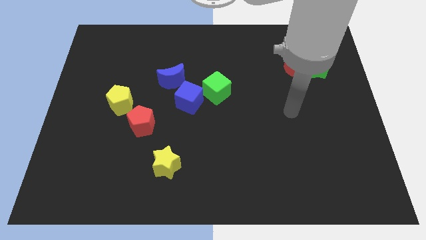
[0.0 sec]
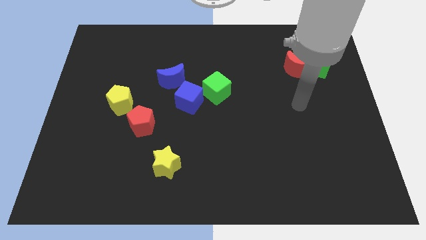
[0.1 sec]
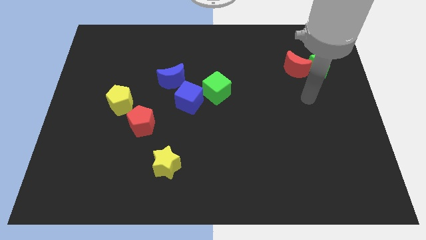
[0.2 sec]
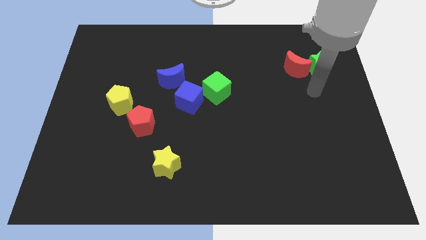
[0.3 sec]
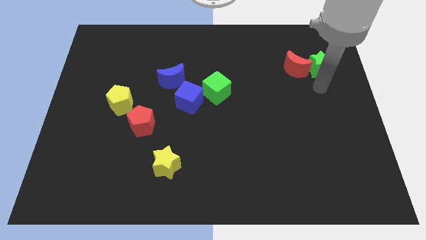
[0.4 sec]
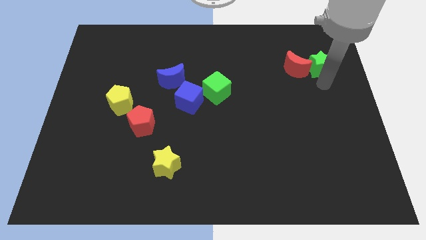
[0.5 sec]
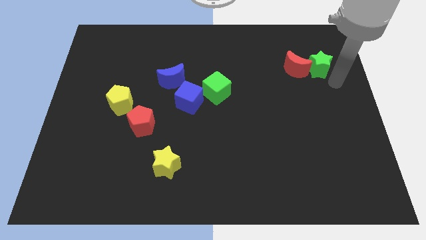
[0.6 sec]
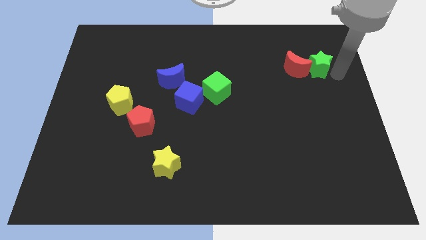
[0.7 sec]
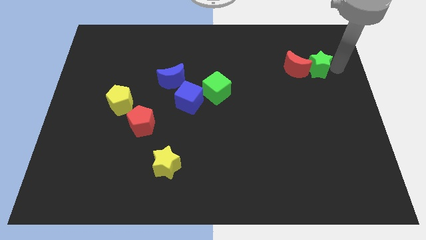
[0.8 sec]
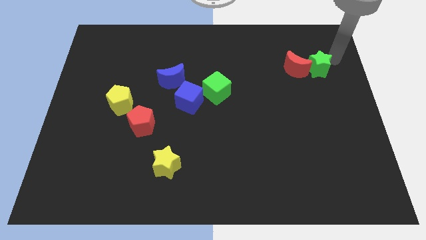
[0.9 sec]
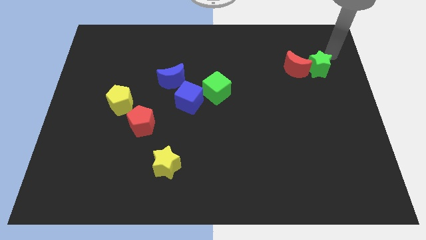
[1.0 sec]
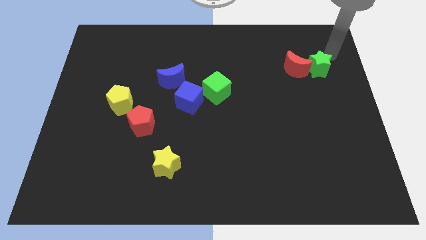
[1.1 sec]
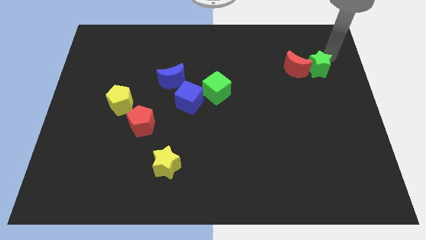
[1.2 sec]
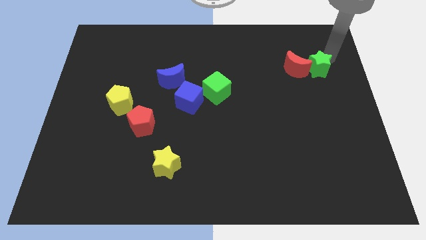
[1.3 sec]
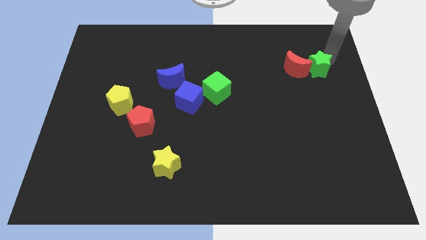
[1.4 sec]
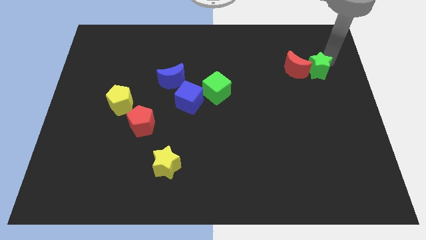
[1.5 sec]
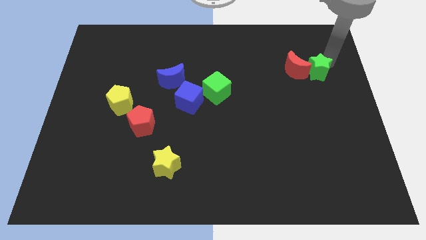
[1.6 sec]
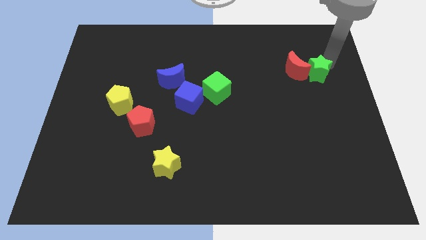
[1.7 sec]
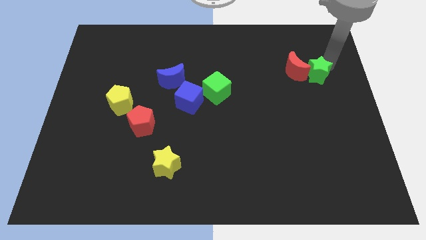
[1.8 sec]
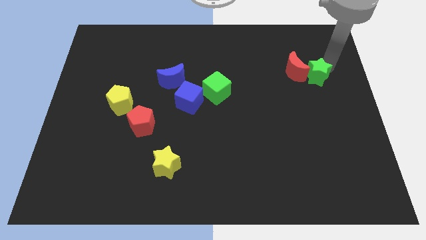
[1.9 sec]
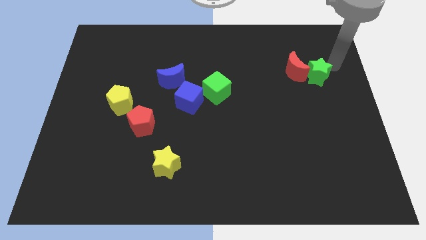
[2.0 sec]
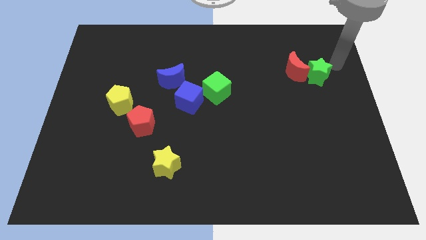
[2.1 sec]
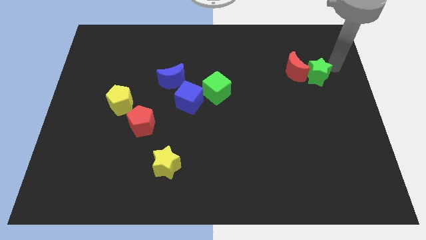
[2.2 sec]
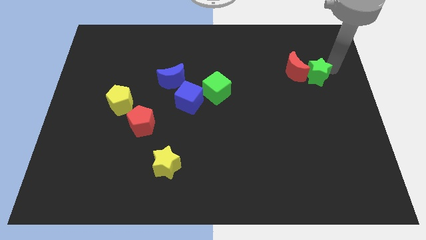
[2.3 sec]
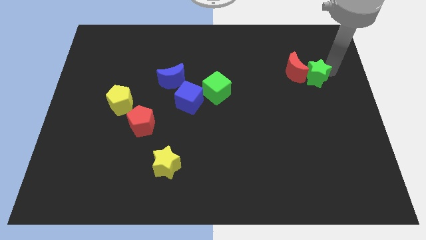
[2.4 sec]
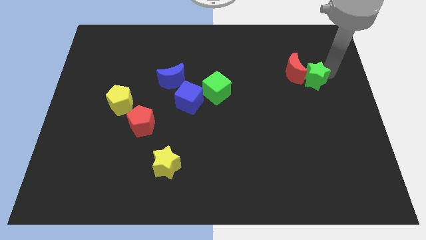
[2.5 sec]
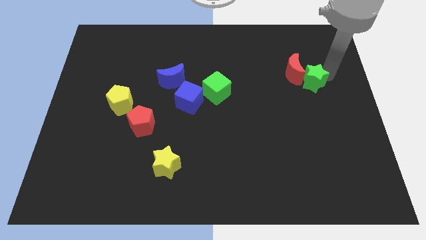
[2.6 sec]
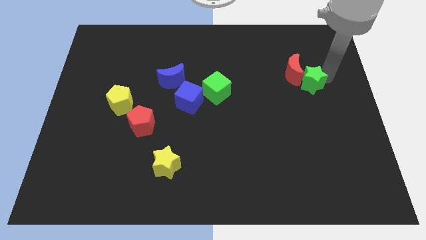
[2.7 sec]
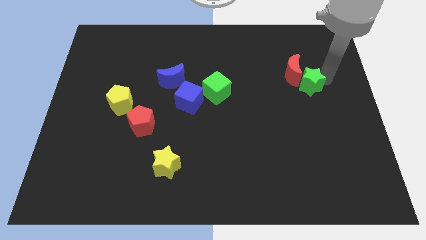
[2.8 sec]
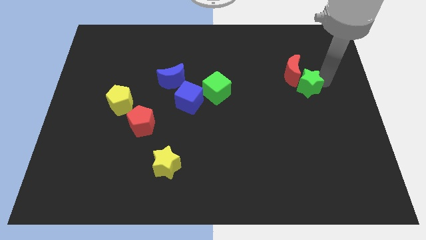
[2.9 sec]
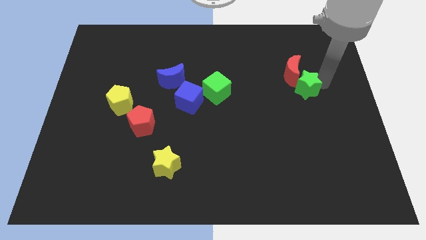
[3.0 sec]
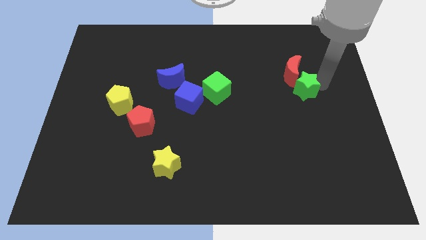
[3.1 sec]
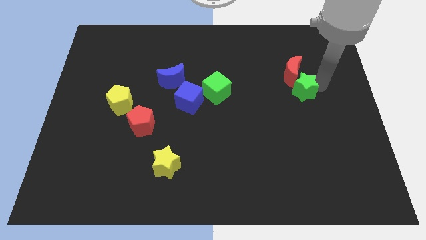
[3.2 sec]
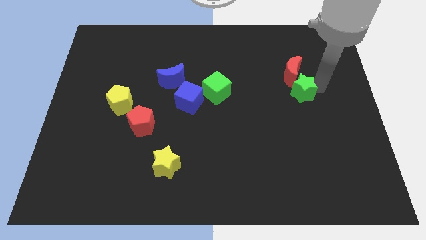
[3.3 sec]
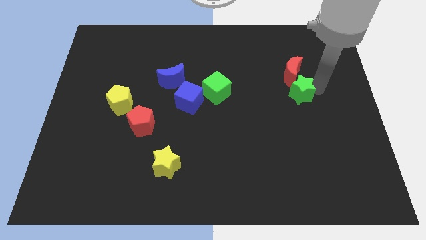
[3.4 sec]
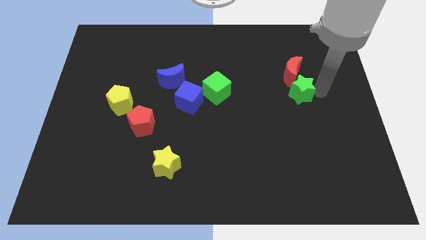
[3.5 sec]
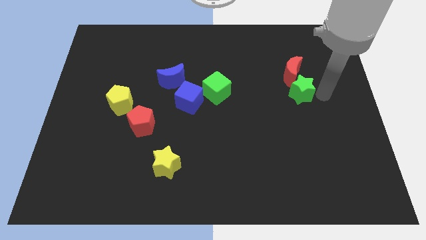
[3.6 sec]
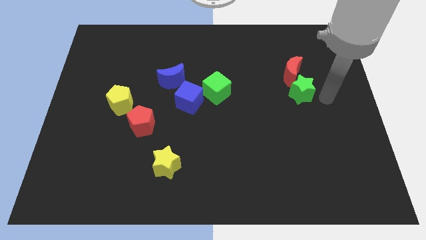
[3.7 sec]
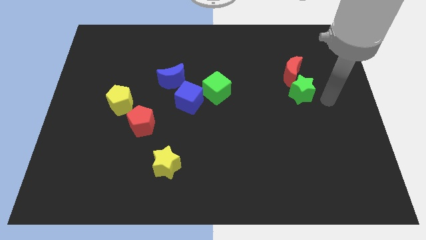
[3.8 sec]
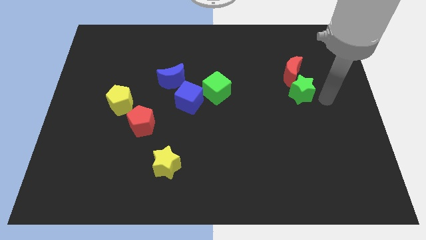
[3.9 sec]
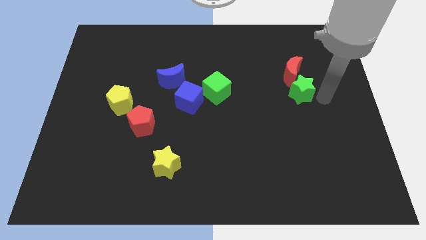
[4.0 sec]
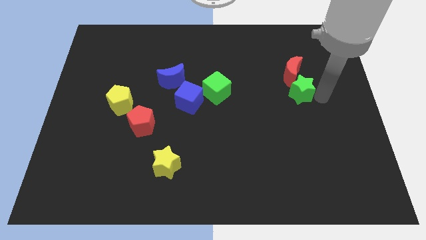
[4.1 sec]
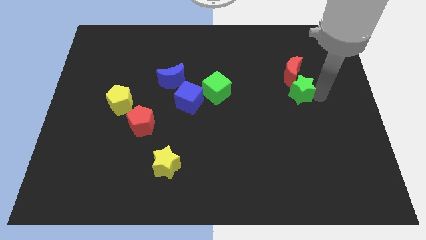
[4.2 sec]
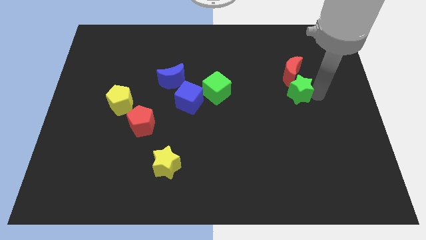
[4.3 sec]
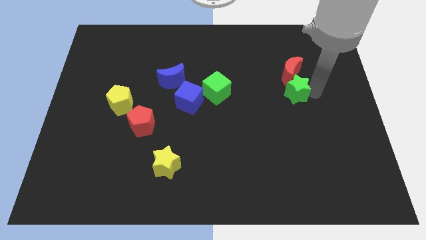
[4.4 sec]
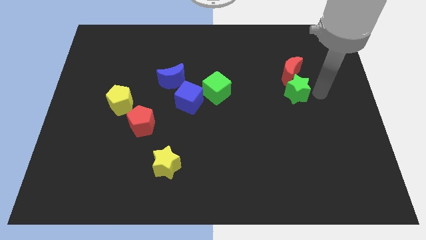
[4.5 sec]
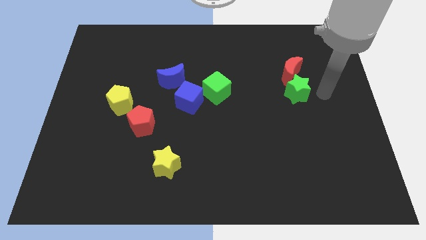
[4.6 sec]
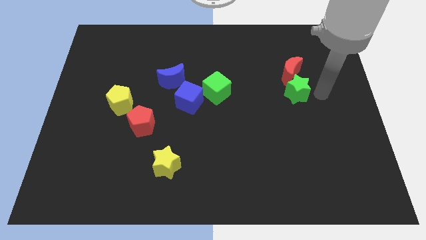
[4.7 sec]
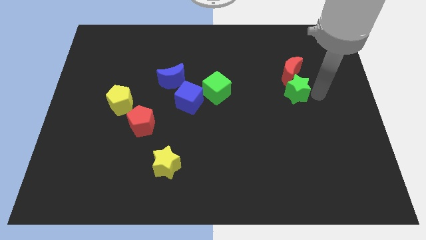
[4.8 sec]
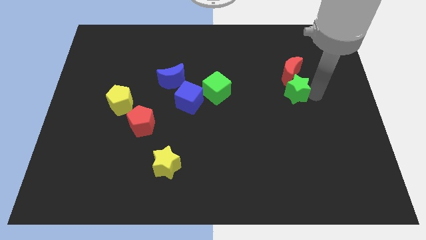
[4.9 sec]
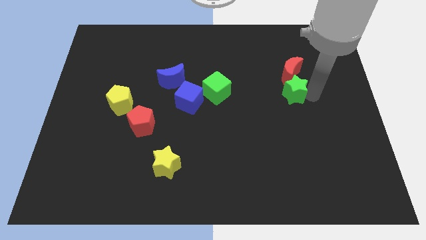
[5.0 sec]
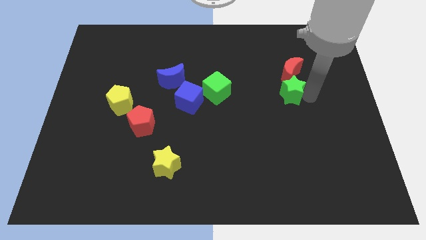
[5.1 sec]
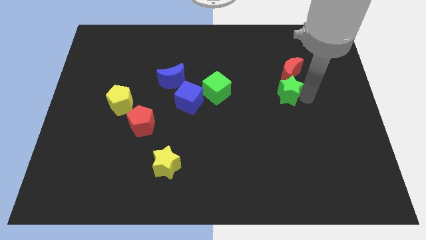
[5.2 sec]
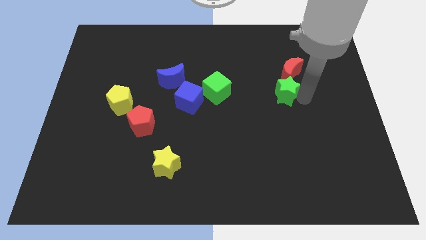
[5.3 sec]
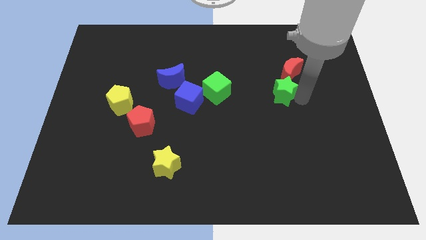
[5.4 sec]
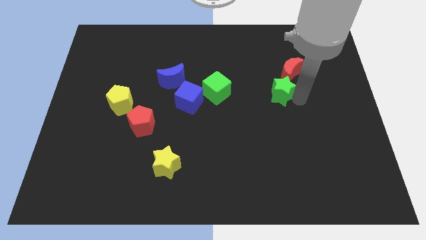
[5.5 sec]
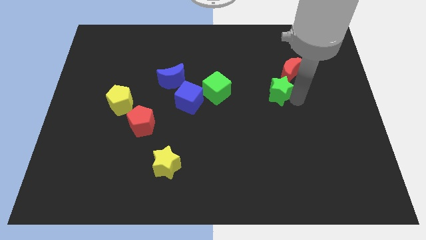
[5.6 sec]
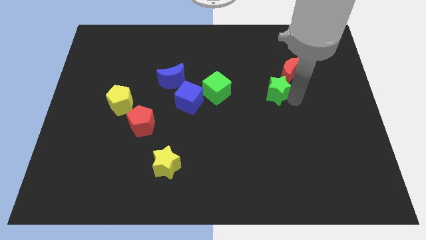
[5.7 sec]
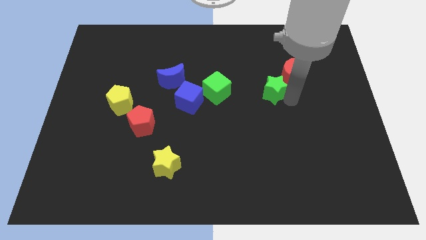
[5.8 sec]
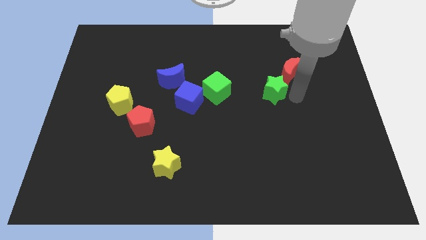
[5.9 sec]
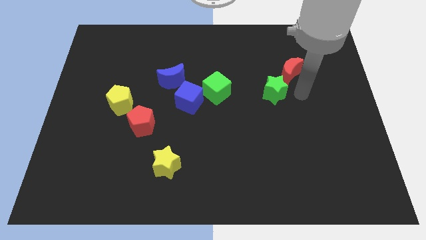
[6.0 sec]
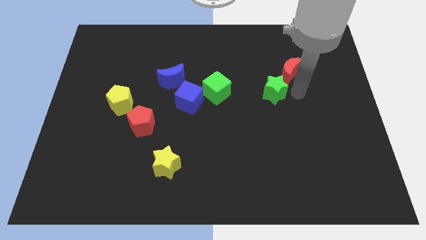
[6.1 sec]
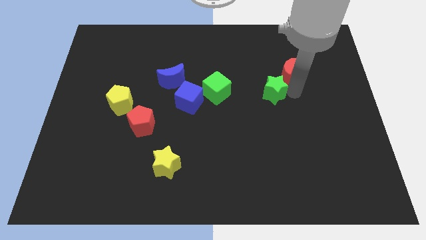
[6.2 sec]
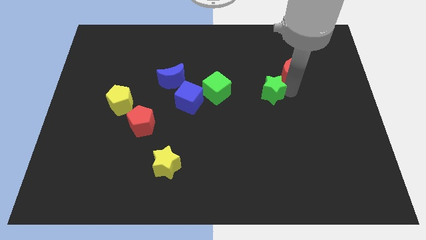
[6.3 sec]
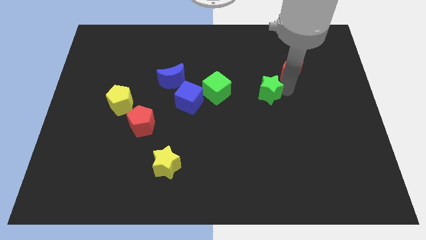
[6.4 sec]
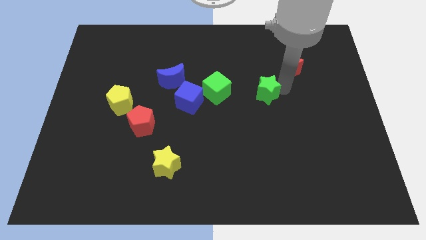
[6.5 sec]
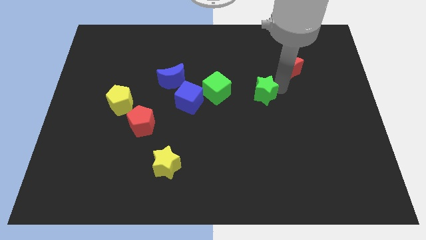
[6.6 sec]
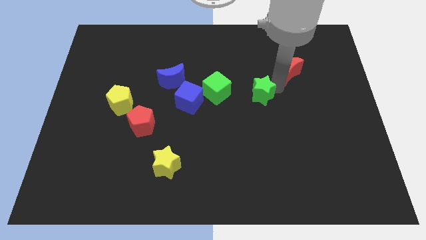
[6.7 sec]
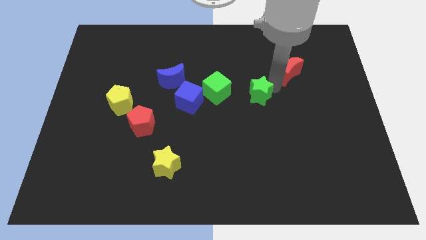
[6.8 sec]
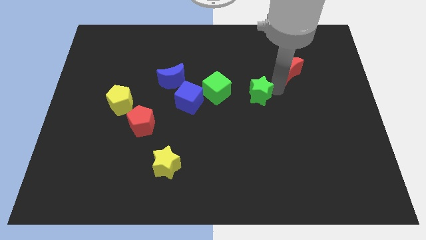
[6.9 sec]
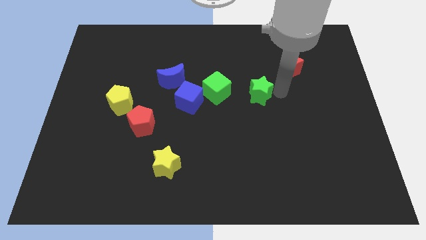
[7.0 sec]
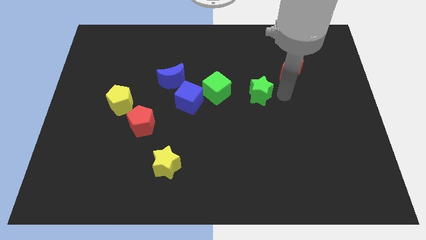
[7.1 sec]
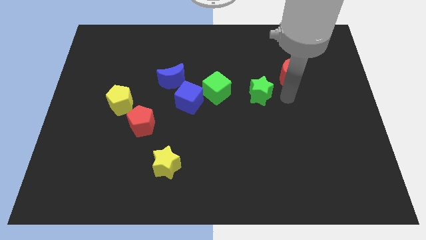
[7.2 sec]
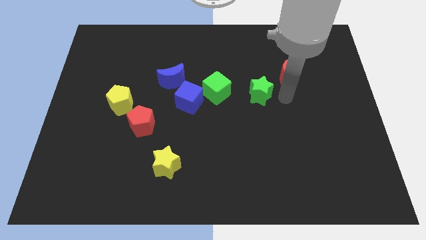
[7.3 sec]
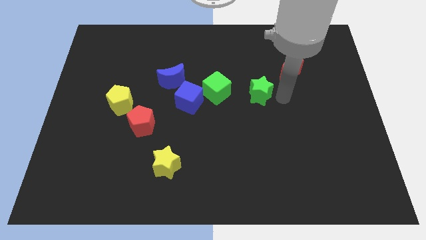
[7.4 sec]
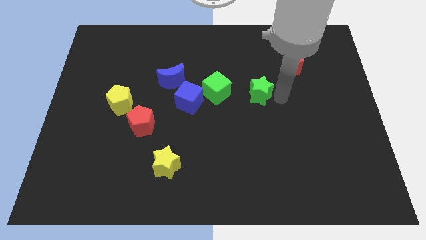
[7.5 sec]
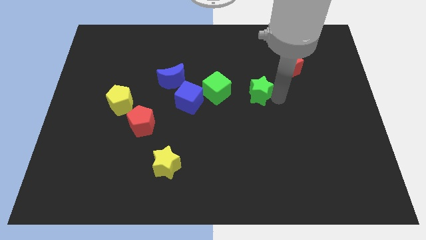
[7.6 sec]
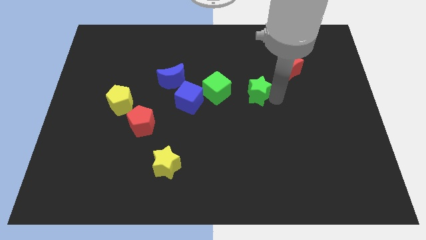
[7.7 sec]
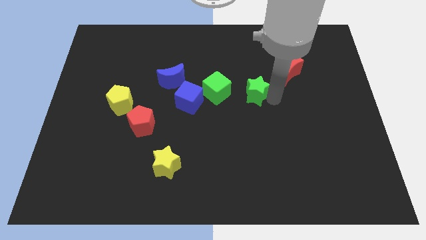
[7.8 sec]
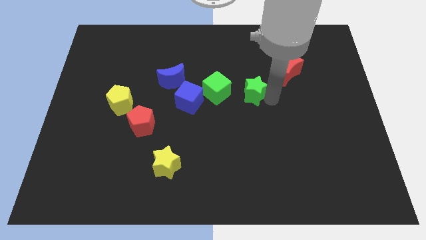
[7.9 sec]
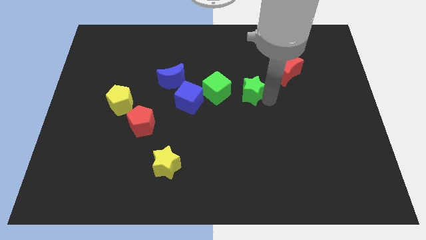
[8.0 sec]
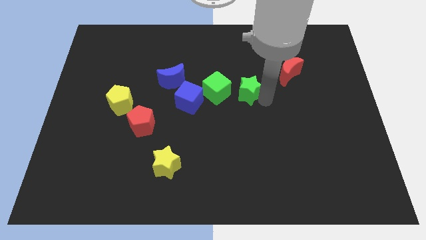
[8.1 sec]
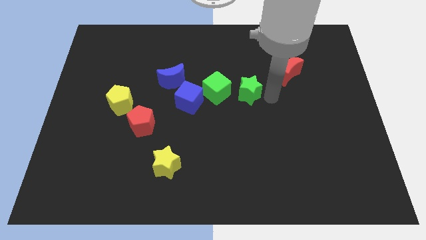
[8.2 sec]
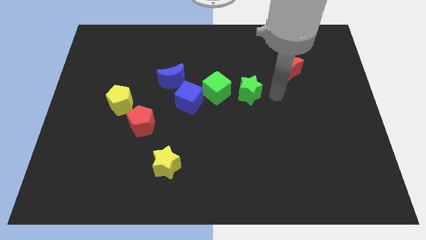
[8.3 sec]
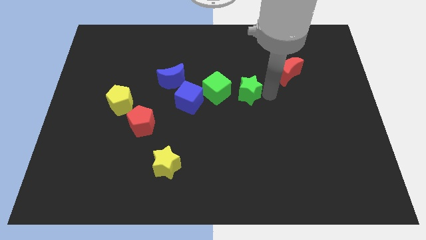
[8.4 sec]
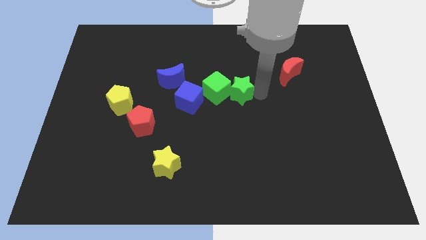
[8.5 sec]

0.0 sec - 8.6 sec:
put the green star to the green cube
